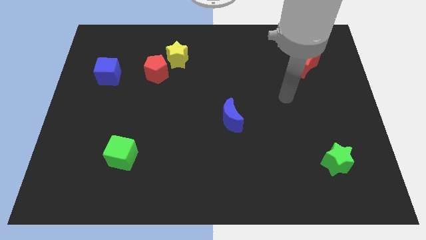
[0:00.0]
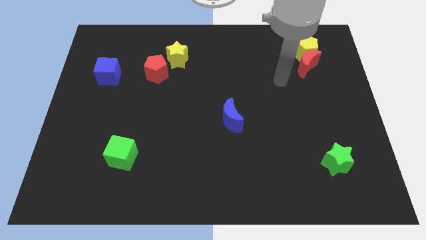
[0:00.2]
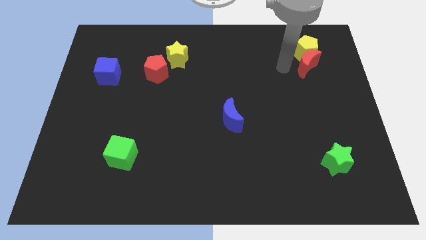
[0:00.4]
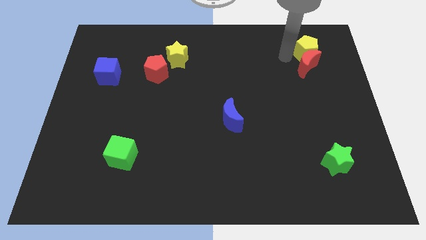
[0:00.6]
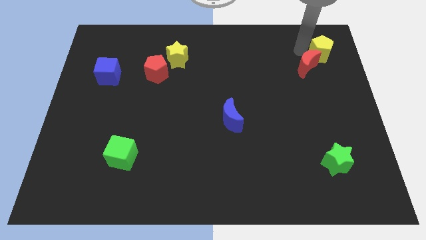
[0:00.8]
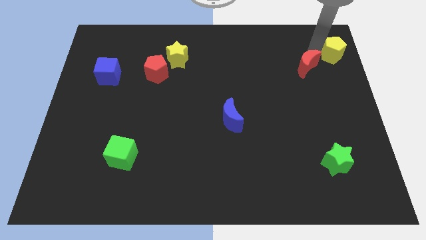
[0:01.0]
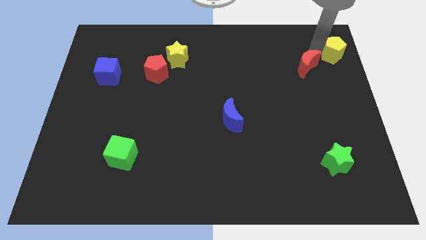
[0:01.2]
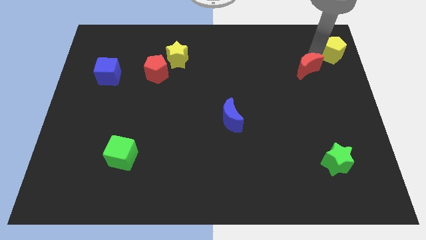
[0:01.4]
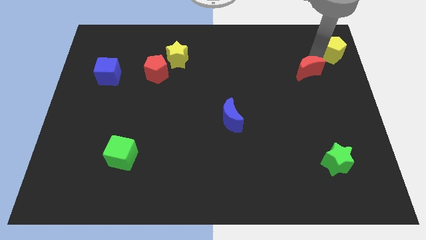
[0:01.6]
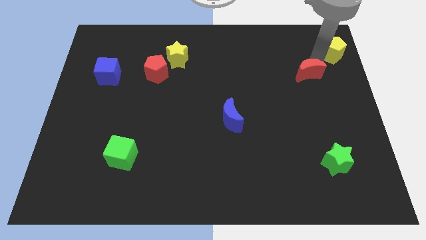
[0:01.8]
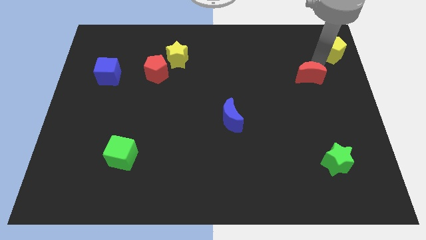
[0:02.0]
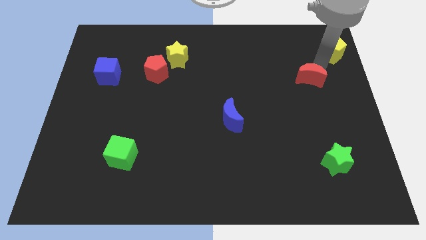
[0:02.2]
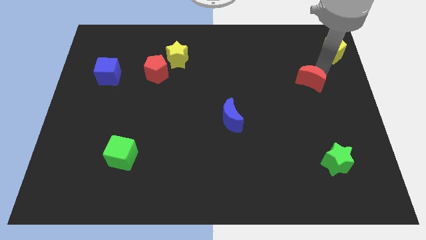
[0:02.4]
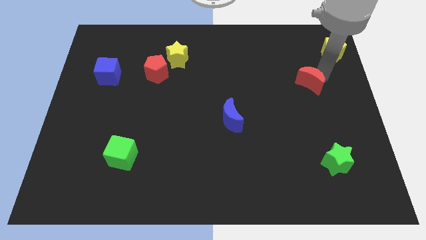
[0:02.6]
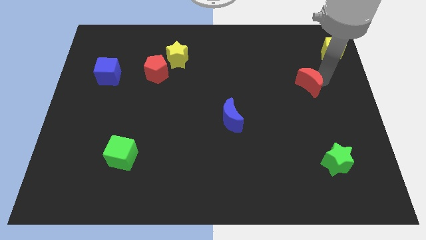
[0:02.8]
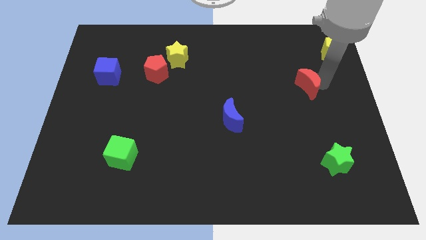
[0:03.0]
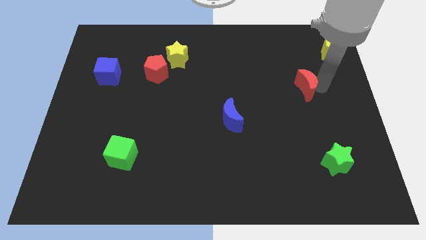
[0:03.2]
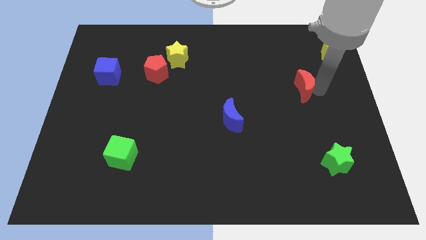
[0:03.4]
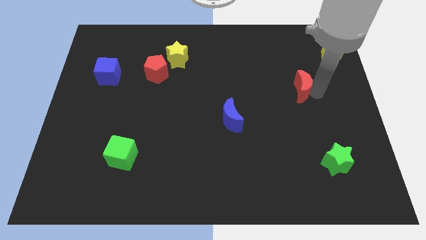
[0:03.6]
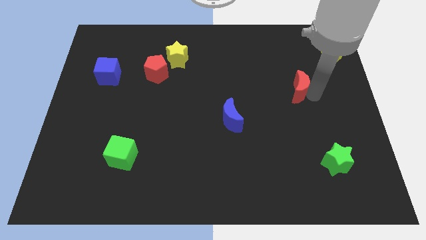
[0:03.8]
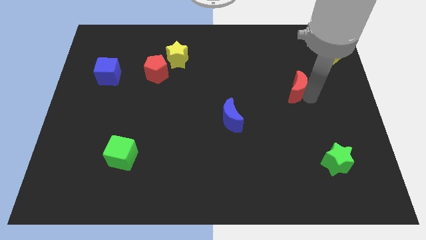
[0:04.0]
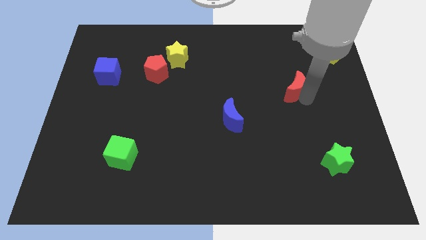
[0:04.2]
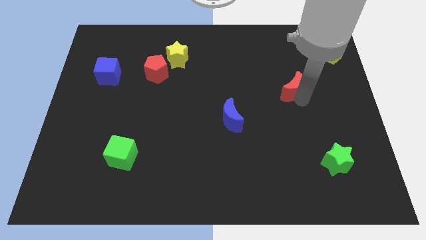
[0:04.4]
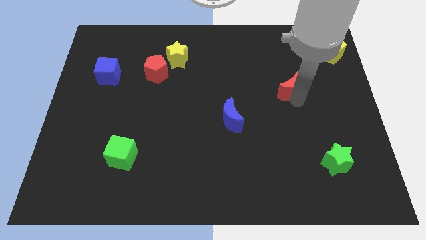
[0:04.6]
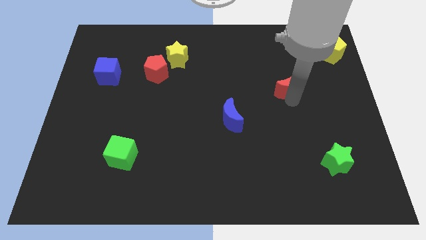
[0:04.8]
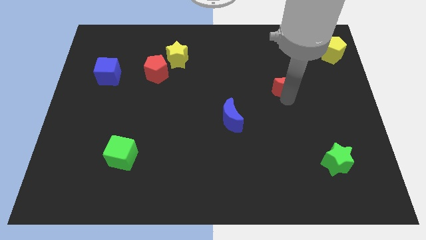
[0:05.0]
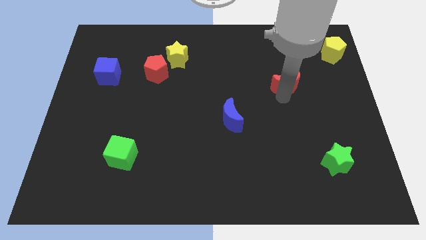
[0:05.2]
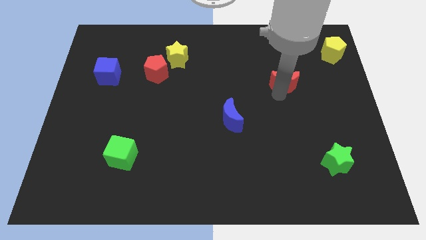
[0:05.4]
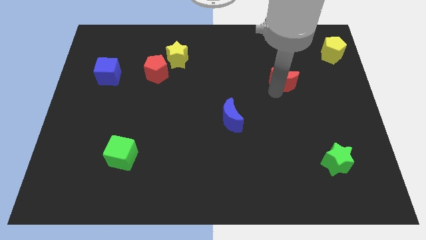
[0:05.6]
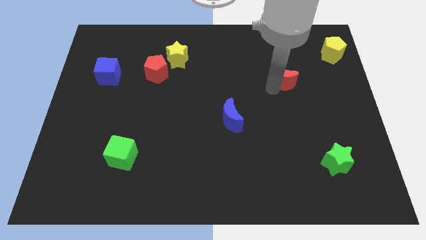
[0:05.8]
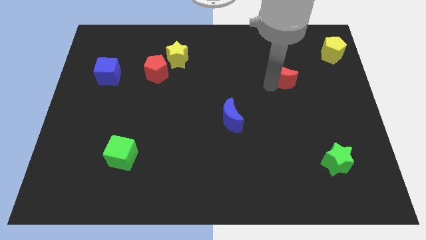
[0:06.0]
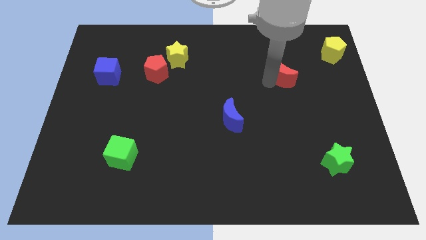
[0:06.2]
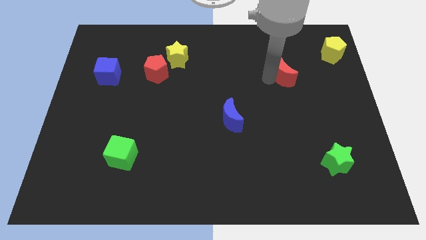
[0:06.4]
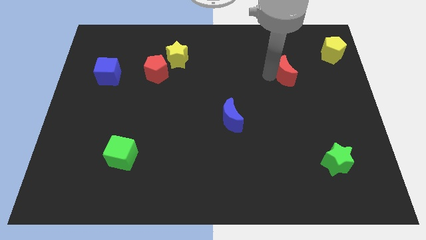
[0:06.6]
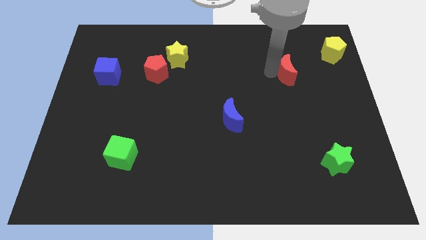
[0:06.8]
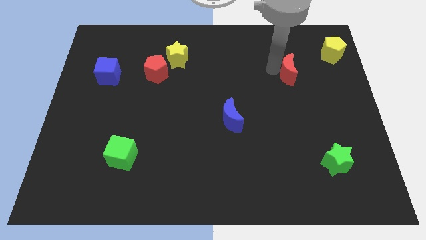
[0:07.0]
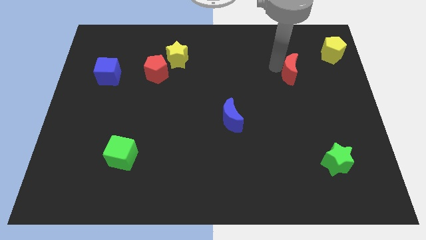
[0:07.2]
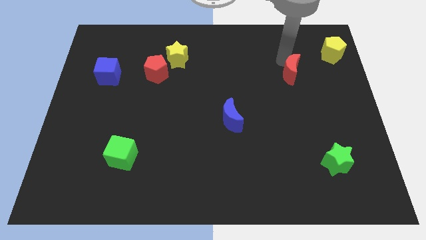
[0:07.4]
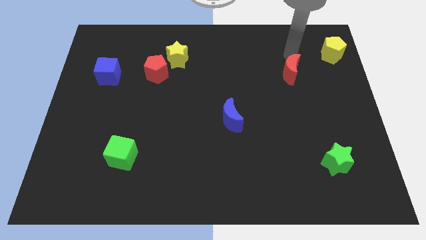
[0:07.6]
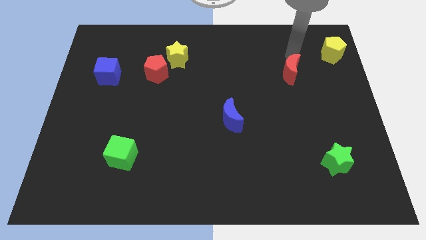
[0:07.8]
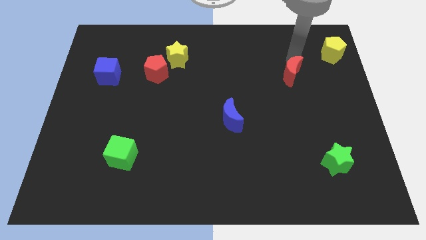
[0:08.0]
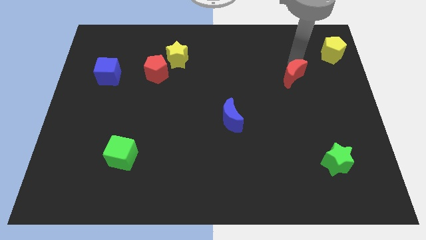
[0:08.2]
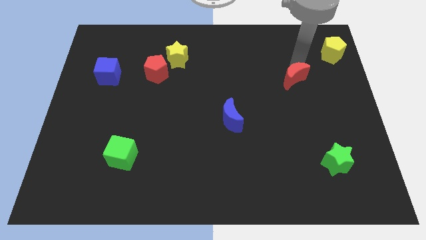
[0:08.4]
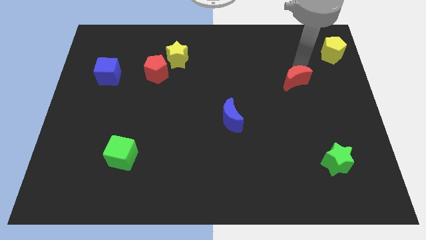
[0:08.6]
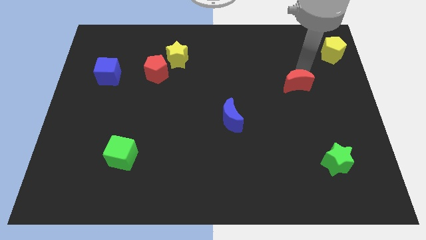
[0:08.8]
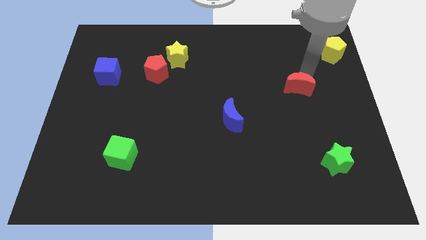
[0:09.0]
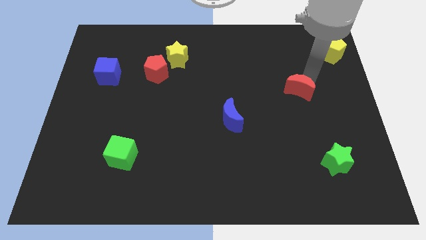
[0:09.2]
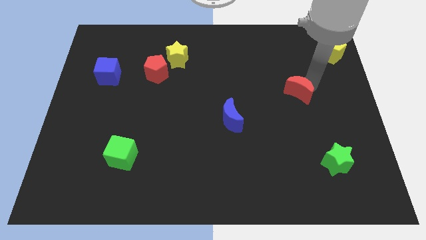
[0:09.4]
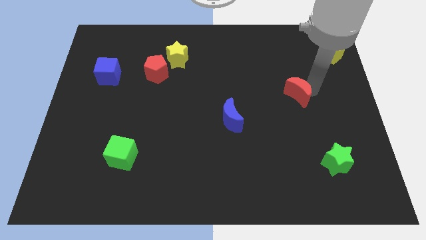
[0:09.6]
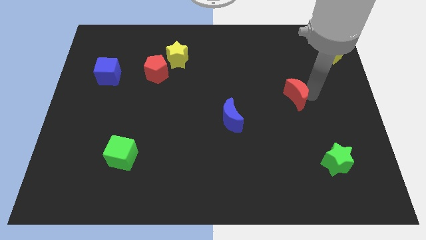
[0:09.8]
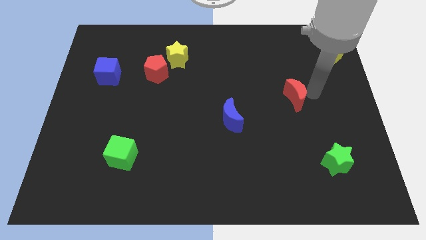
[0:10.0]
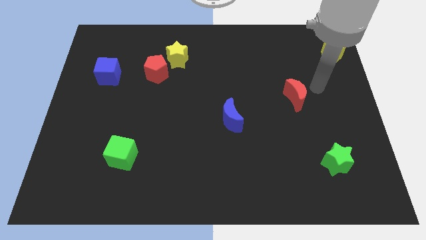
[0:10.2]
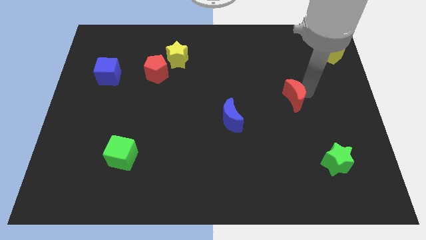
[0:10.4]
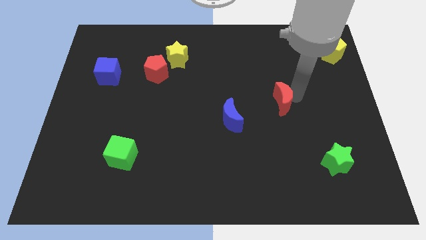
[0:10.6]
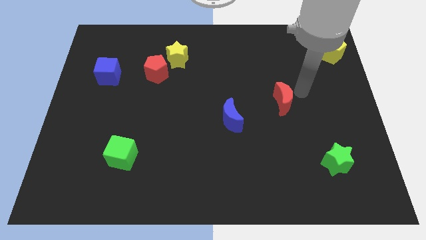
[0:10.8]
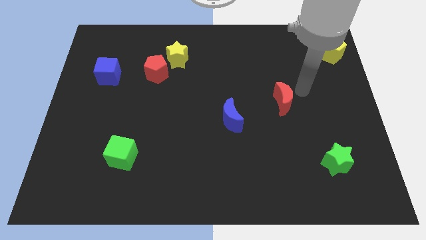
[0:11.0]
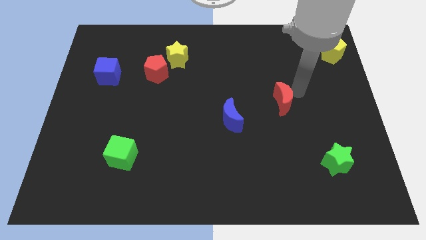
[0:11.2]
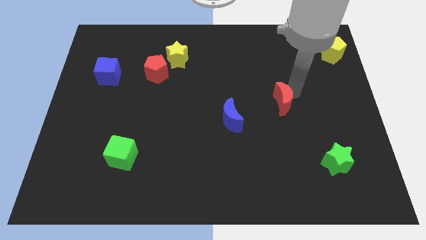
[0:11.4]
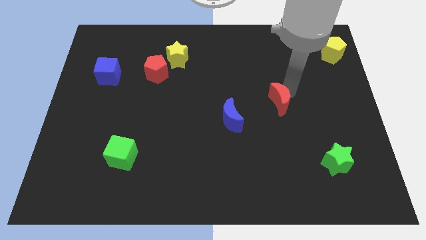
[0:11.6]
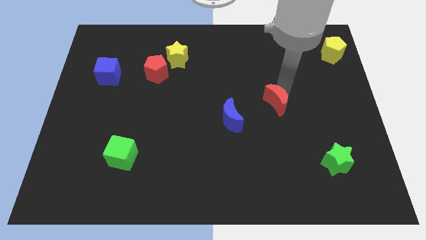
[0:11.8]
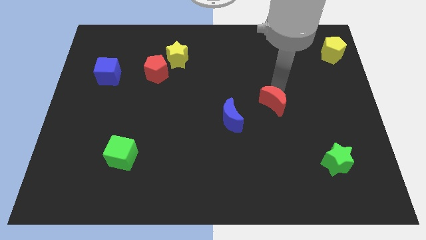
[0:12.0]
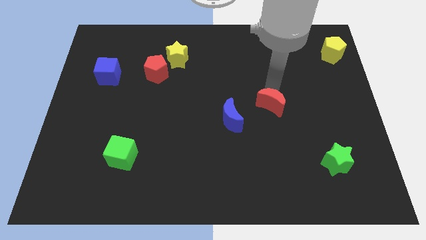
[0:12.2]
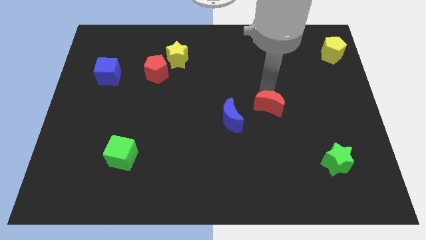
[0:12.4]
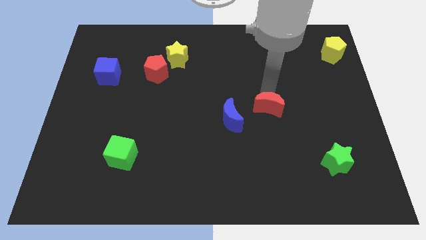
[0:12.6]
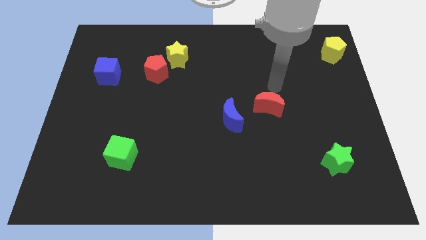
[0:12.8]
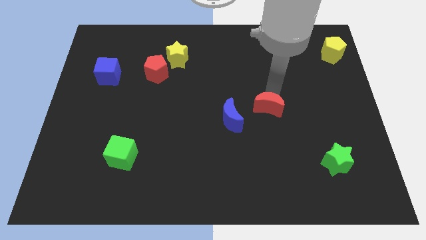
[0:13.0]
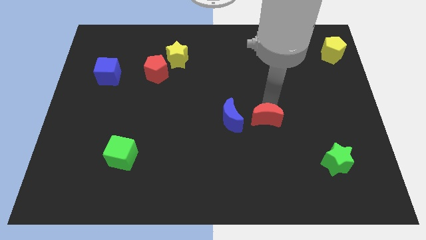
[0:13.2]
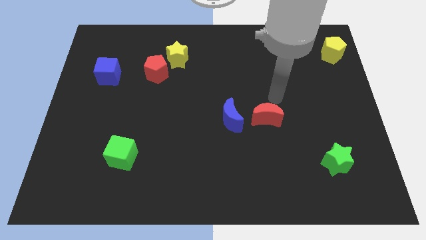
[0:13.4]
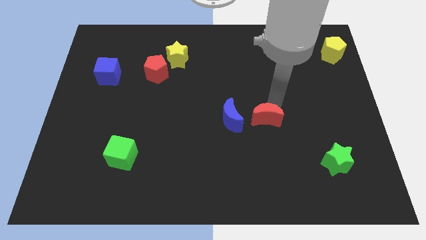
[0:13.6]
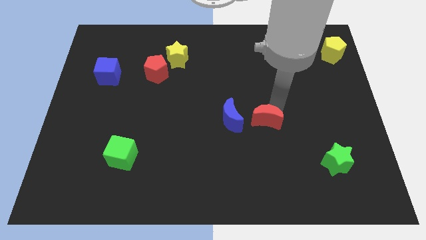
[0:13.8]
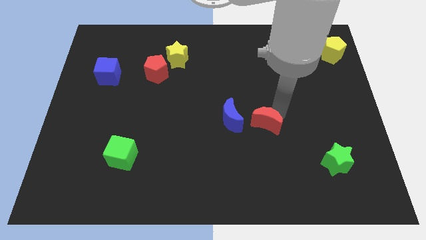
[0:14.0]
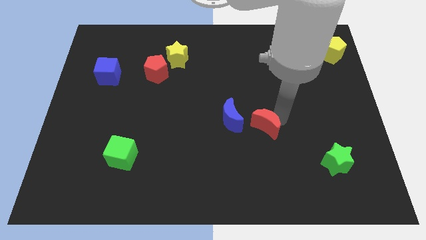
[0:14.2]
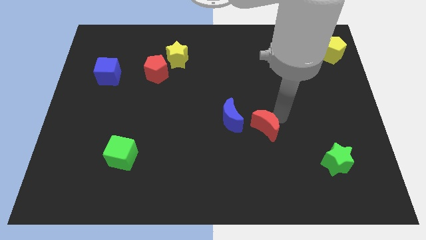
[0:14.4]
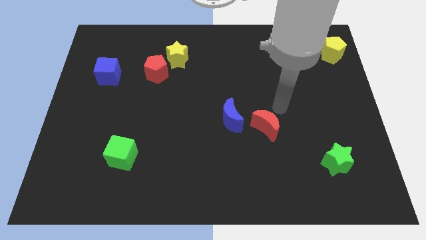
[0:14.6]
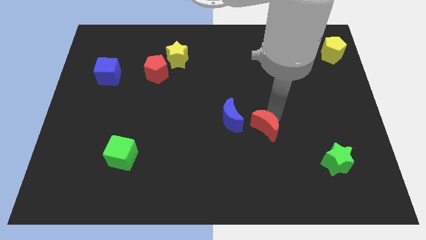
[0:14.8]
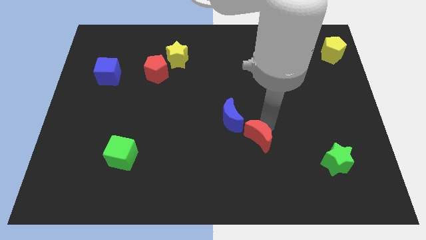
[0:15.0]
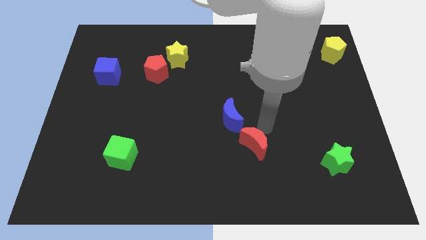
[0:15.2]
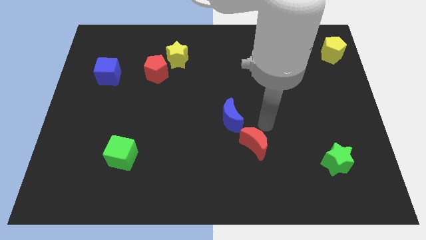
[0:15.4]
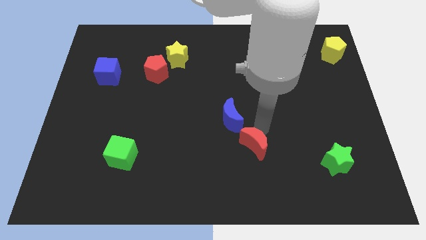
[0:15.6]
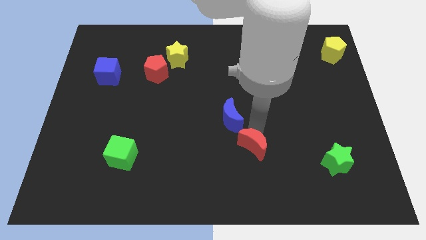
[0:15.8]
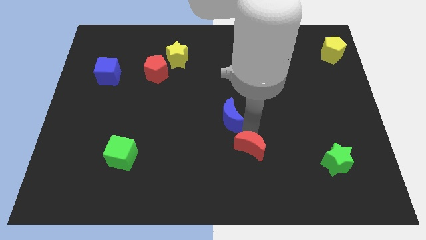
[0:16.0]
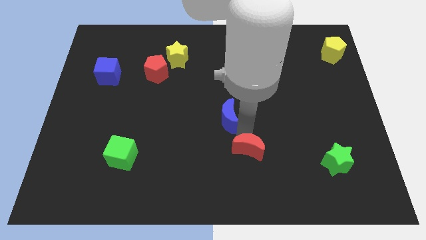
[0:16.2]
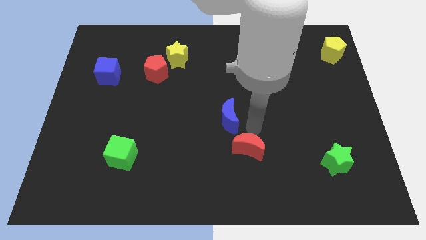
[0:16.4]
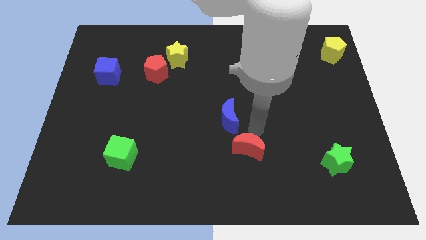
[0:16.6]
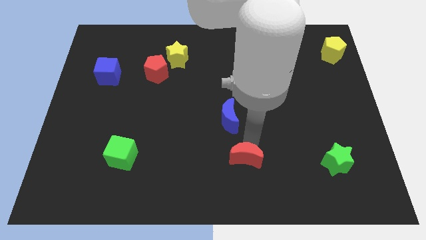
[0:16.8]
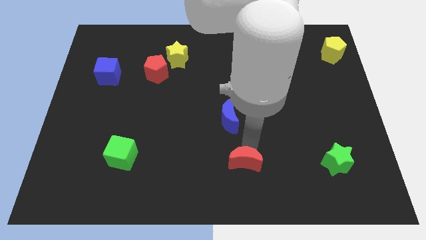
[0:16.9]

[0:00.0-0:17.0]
push the red moon to the bottom
